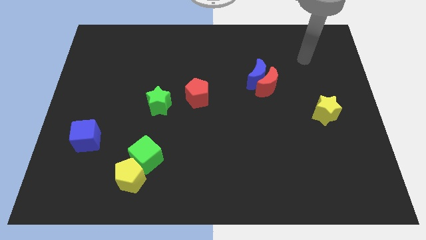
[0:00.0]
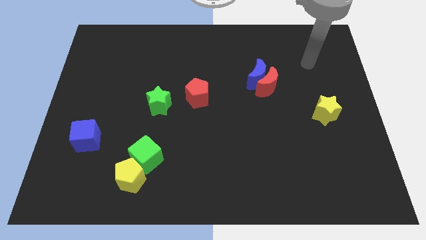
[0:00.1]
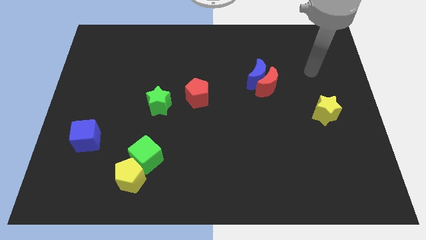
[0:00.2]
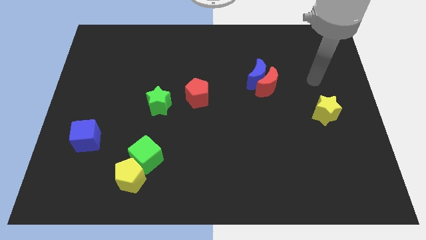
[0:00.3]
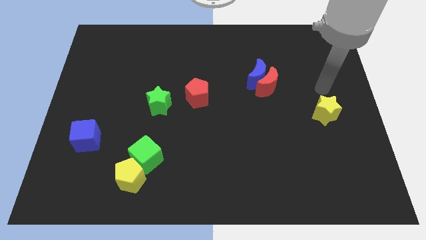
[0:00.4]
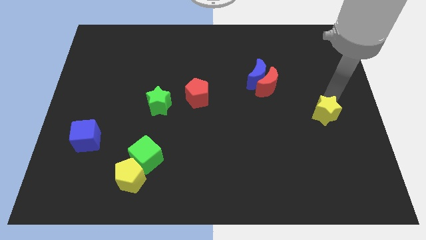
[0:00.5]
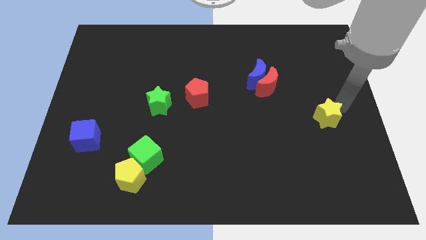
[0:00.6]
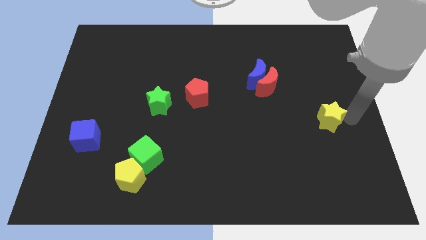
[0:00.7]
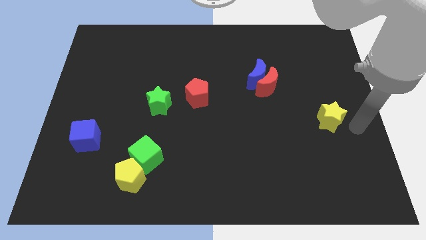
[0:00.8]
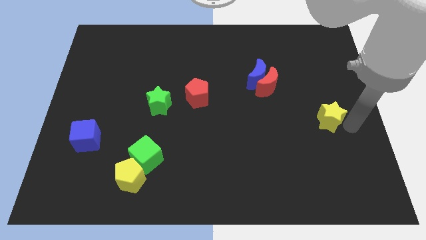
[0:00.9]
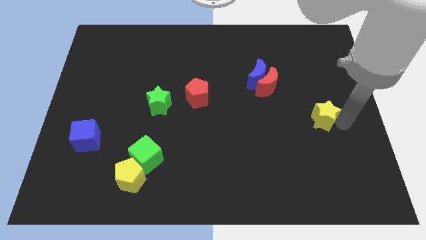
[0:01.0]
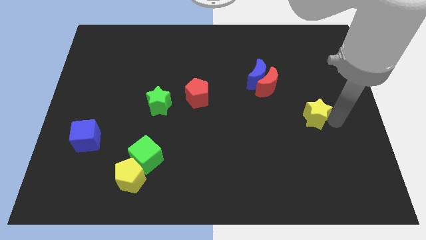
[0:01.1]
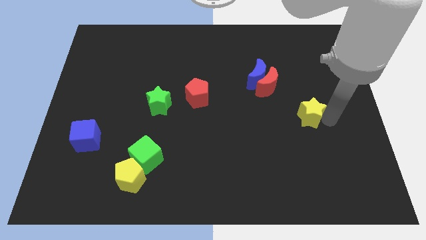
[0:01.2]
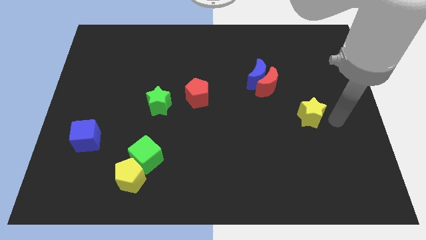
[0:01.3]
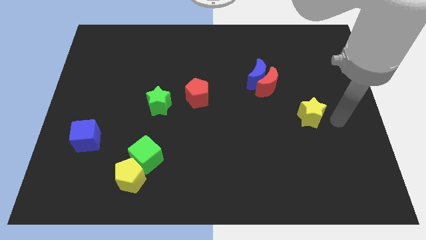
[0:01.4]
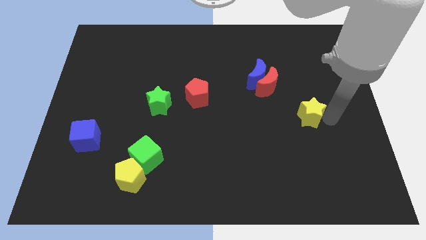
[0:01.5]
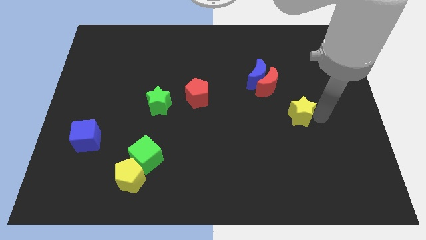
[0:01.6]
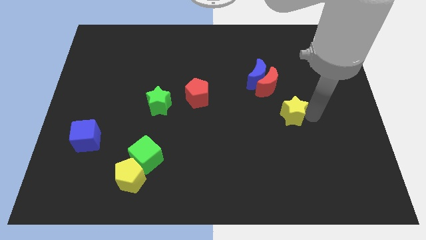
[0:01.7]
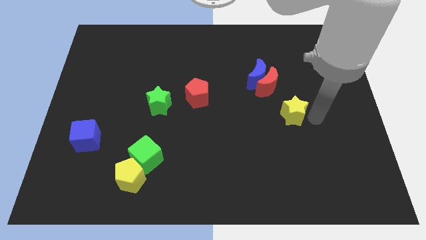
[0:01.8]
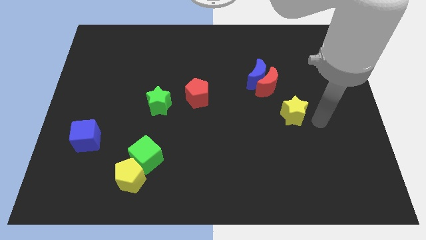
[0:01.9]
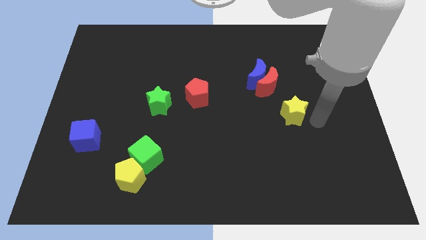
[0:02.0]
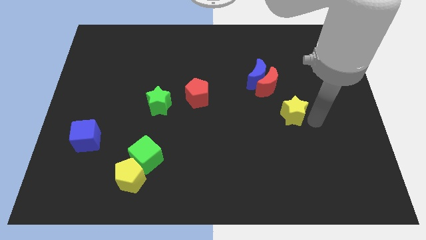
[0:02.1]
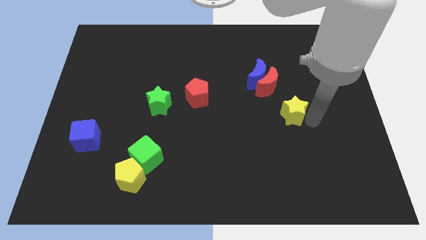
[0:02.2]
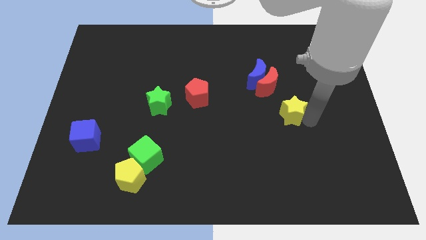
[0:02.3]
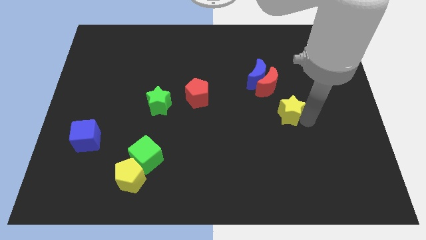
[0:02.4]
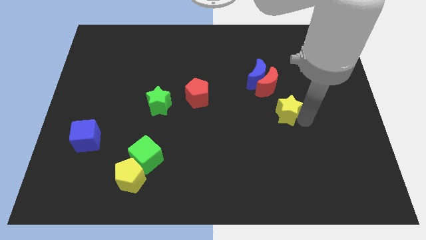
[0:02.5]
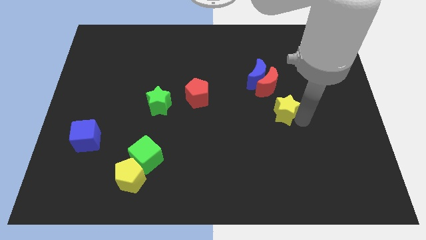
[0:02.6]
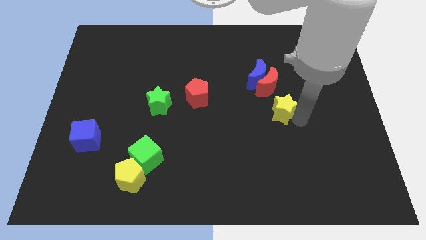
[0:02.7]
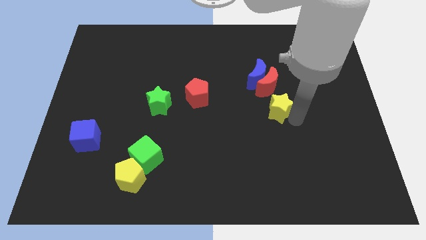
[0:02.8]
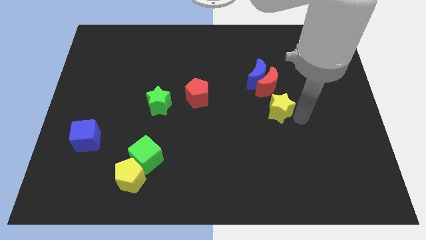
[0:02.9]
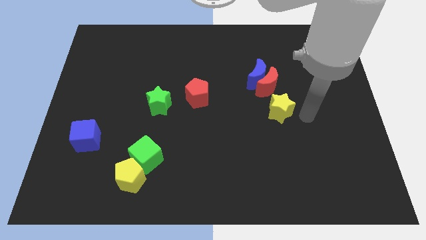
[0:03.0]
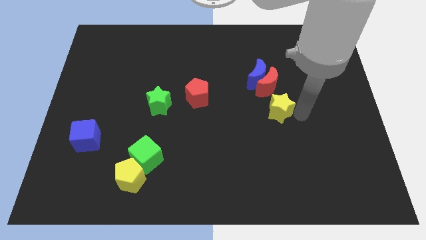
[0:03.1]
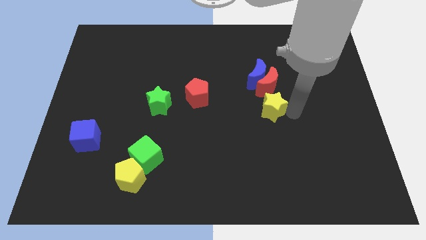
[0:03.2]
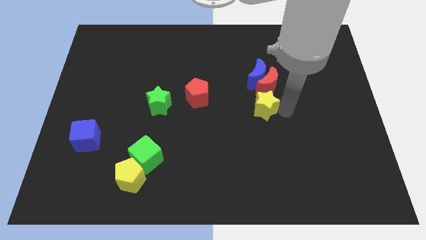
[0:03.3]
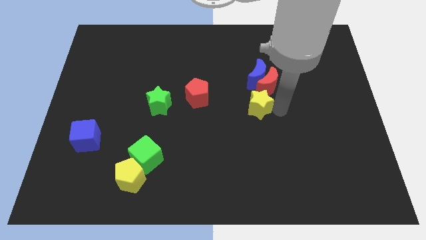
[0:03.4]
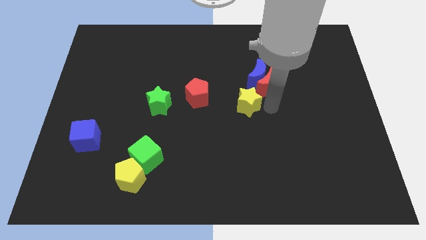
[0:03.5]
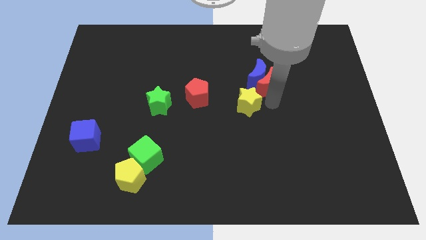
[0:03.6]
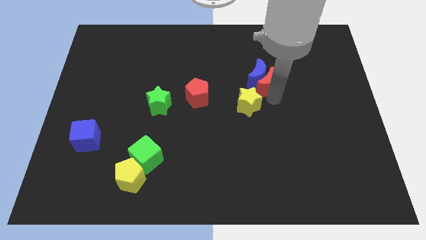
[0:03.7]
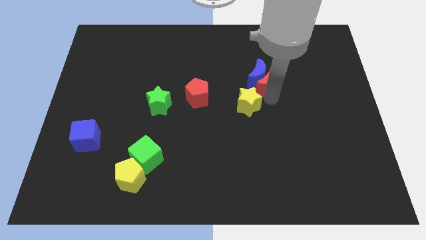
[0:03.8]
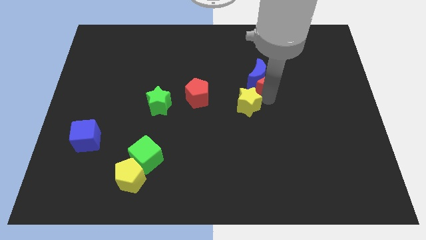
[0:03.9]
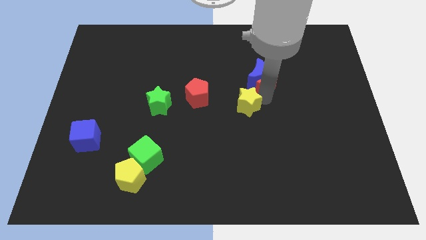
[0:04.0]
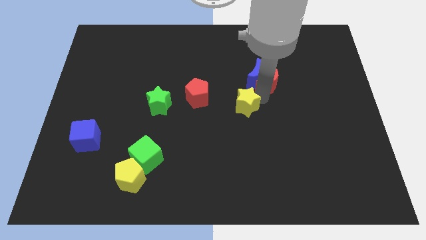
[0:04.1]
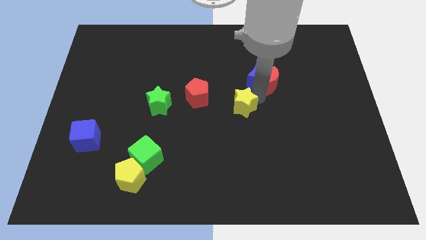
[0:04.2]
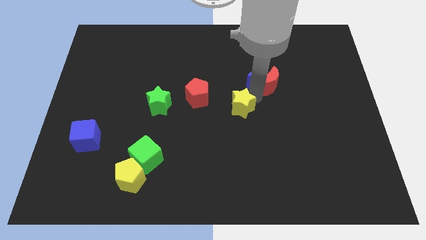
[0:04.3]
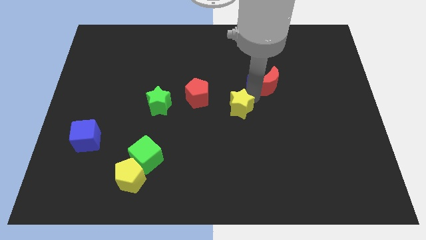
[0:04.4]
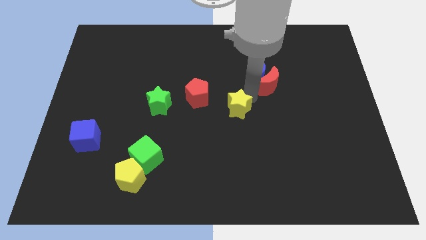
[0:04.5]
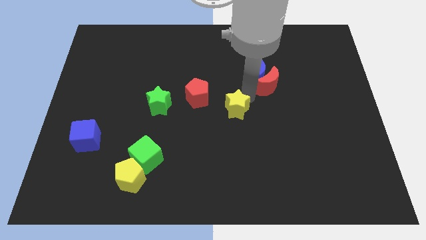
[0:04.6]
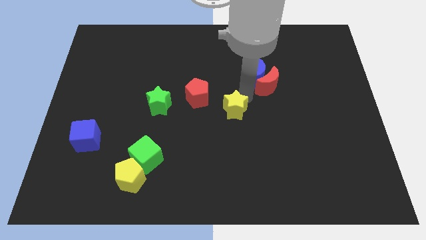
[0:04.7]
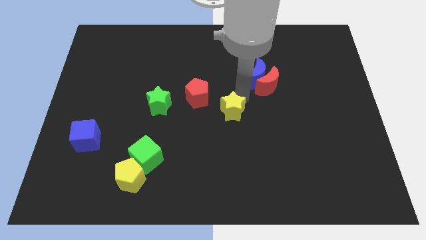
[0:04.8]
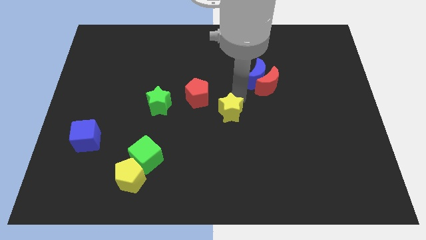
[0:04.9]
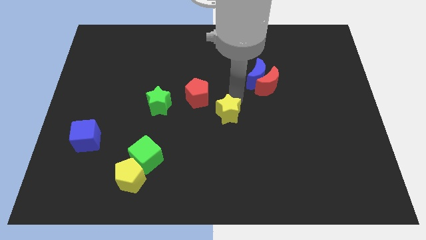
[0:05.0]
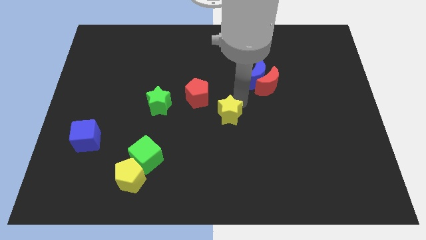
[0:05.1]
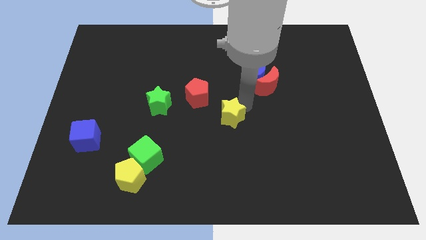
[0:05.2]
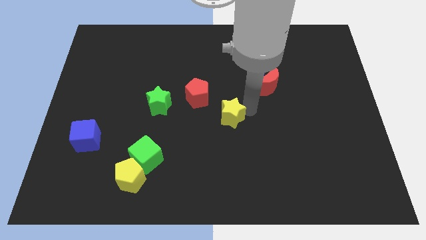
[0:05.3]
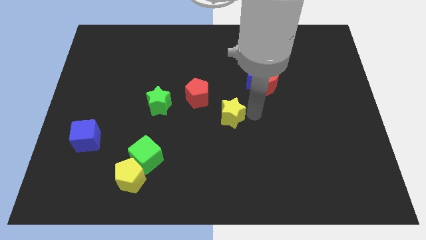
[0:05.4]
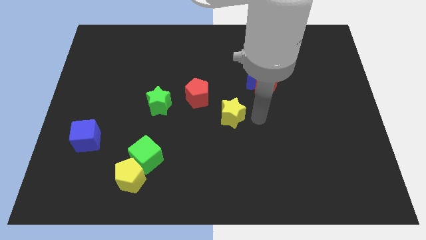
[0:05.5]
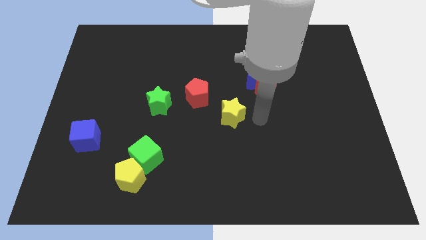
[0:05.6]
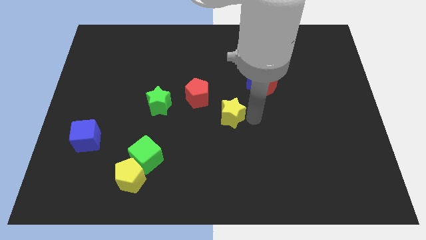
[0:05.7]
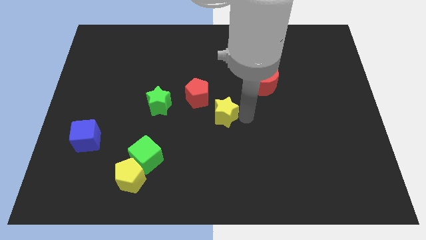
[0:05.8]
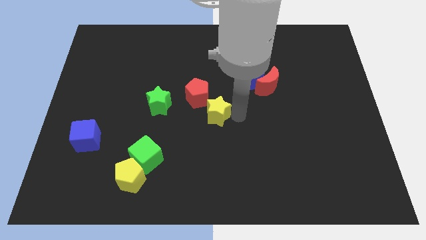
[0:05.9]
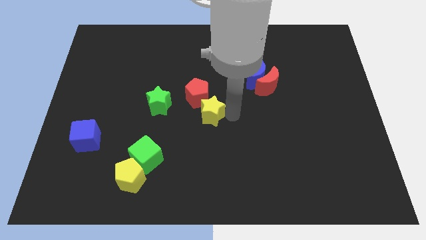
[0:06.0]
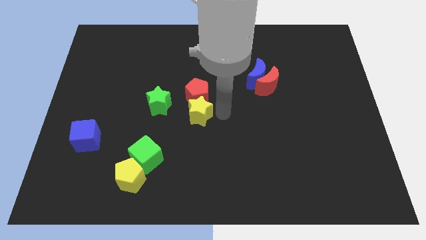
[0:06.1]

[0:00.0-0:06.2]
move the yellow star diagonally down and to the left of the red pentagon

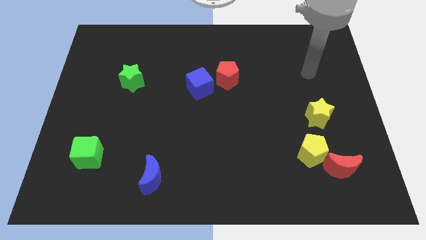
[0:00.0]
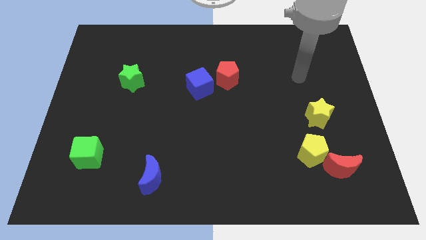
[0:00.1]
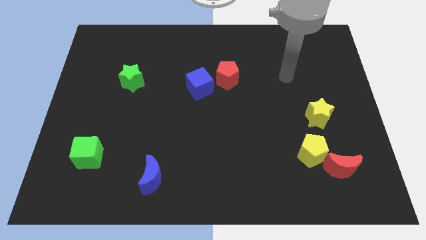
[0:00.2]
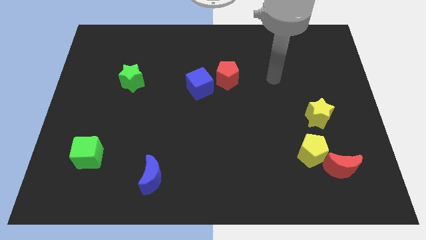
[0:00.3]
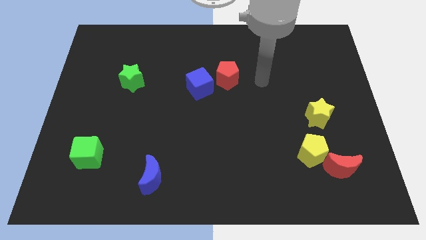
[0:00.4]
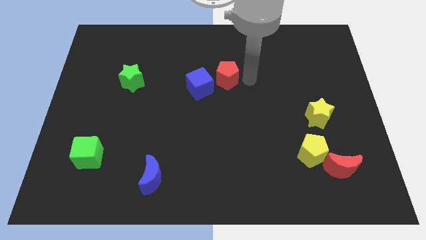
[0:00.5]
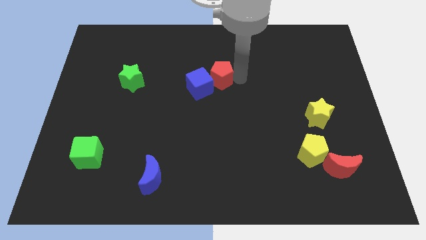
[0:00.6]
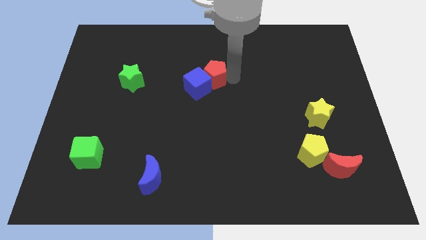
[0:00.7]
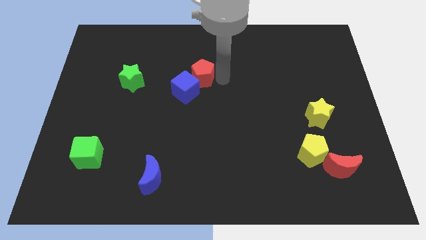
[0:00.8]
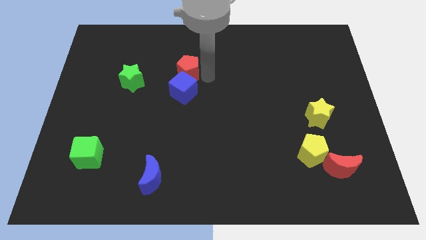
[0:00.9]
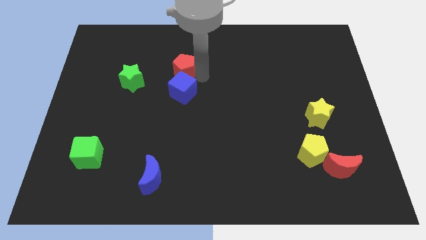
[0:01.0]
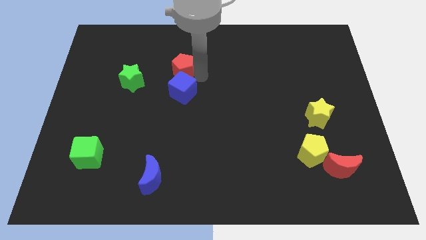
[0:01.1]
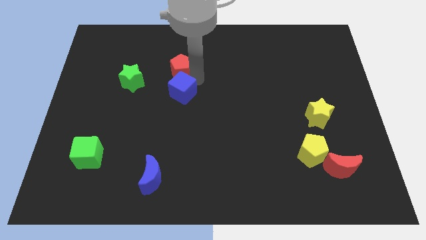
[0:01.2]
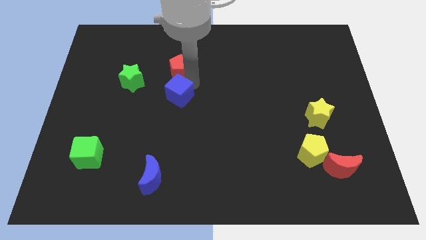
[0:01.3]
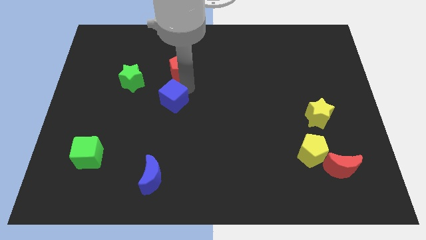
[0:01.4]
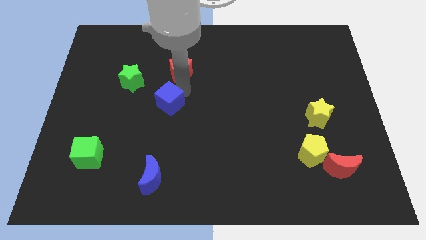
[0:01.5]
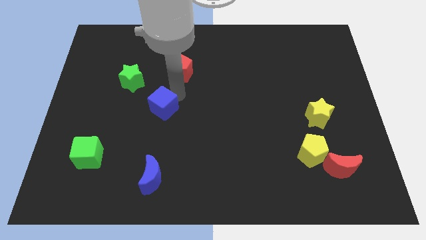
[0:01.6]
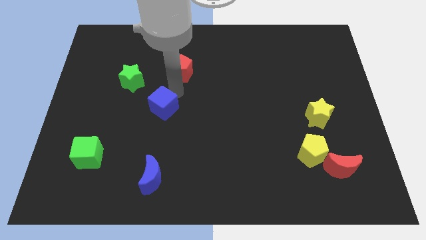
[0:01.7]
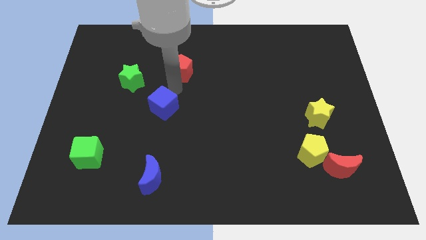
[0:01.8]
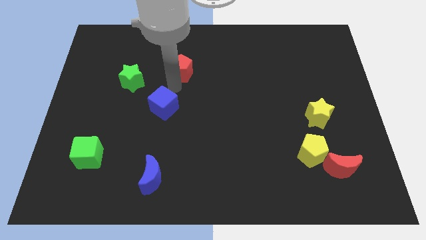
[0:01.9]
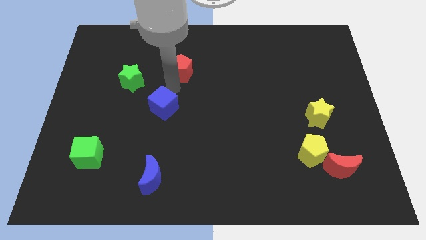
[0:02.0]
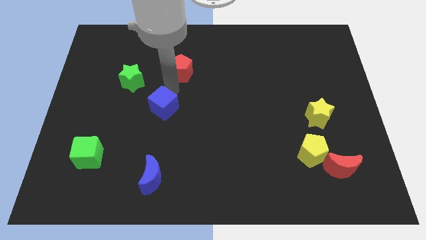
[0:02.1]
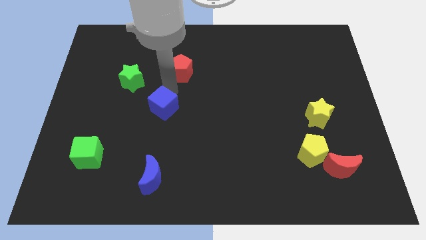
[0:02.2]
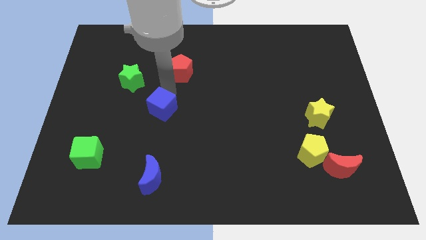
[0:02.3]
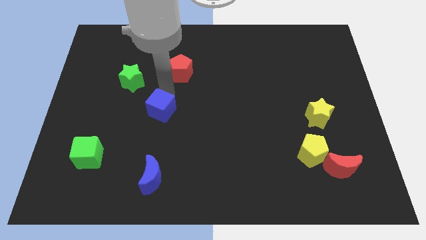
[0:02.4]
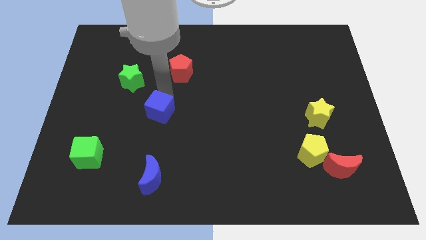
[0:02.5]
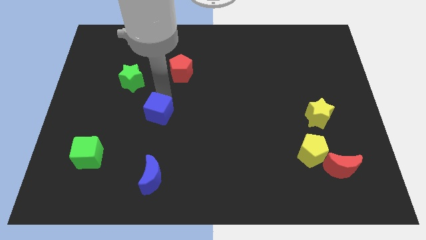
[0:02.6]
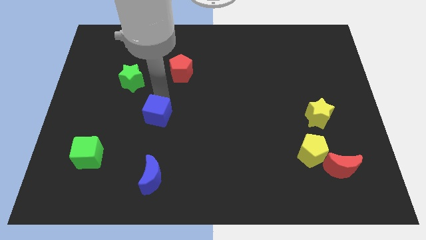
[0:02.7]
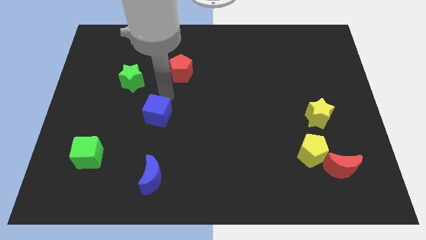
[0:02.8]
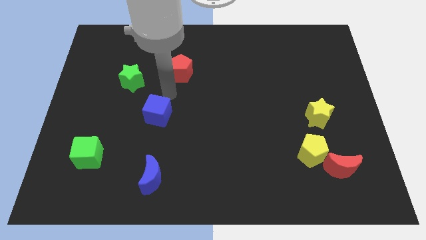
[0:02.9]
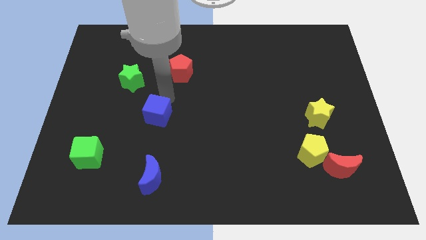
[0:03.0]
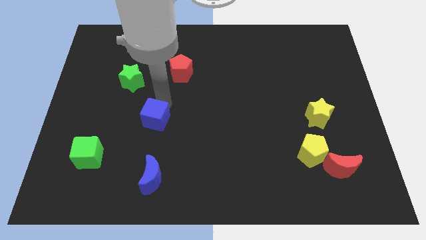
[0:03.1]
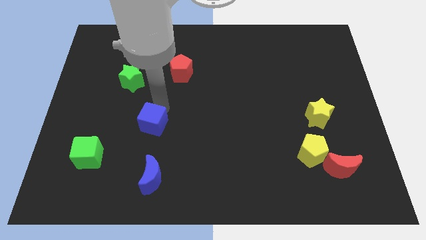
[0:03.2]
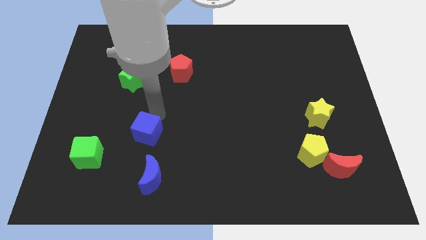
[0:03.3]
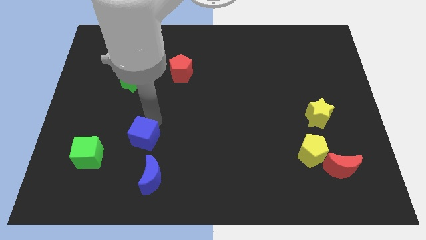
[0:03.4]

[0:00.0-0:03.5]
push the blue cube to the right of the green cube
